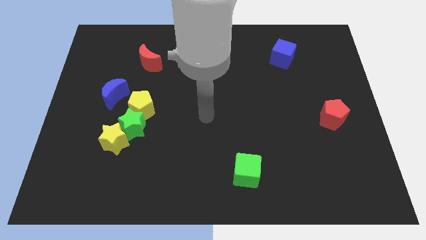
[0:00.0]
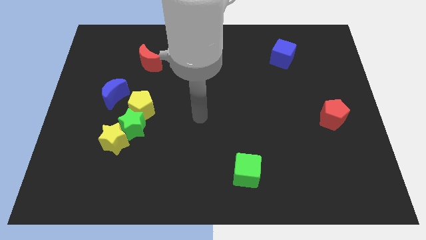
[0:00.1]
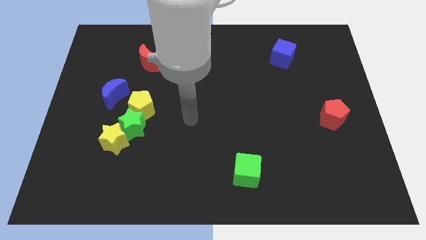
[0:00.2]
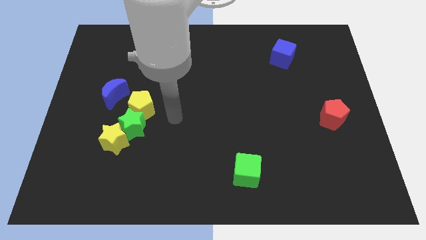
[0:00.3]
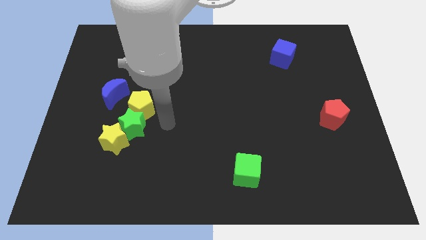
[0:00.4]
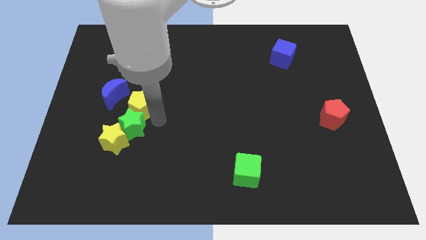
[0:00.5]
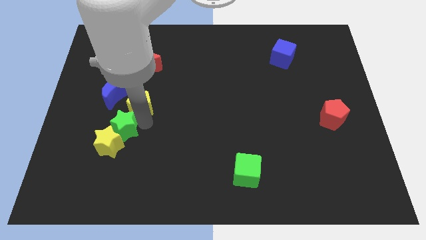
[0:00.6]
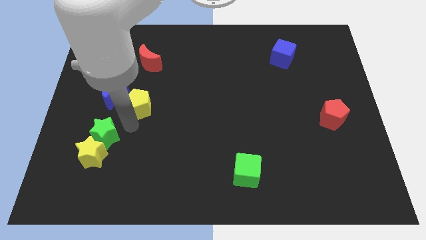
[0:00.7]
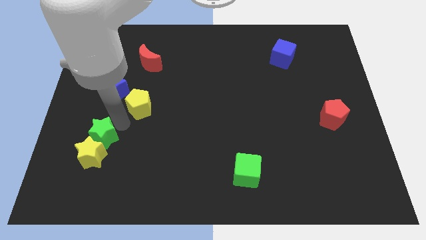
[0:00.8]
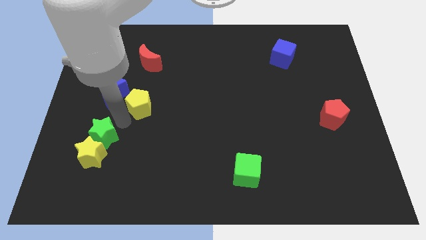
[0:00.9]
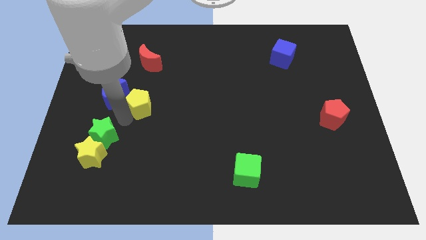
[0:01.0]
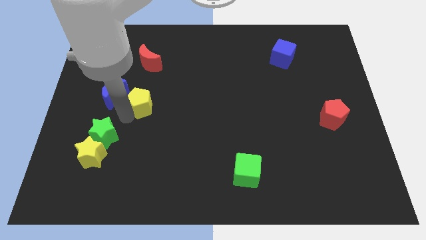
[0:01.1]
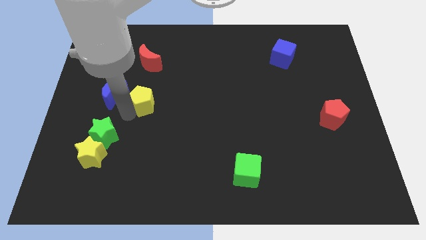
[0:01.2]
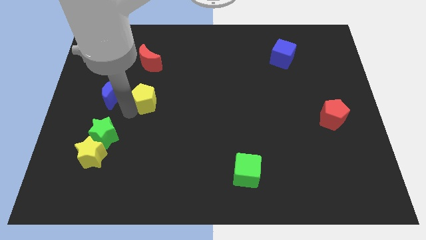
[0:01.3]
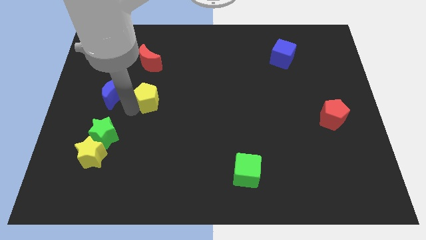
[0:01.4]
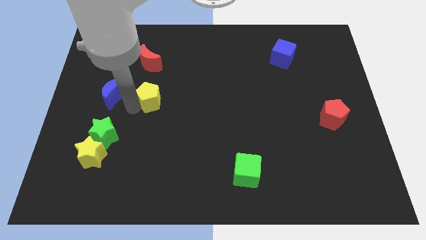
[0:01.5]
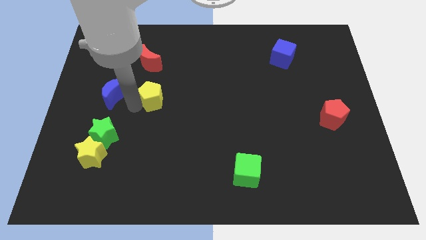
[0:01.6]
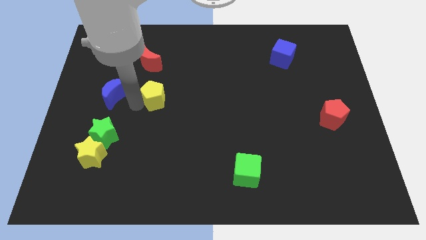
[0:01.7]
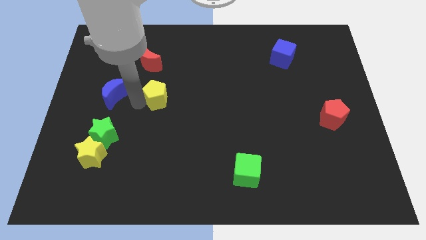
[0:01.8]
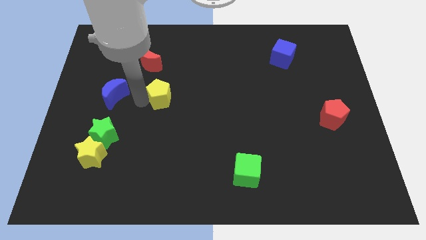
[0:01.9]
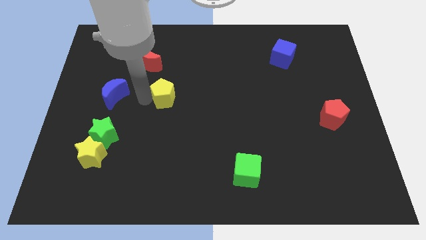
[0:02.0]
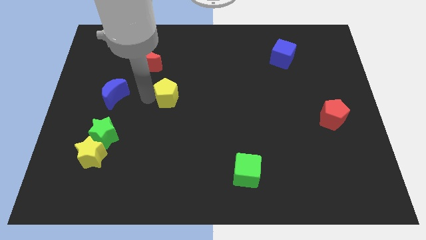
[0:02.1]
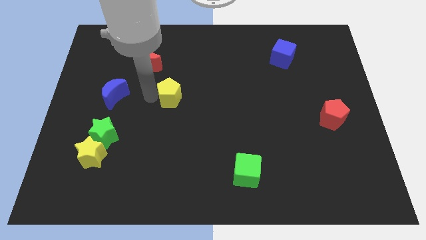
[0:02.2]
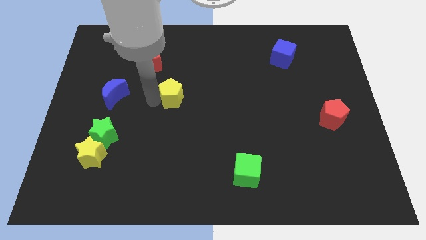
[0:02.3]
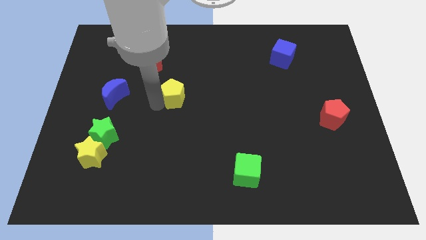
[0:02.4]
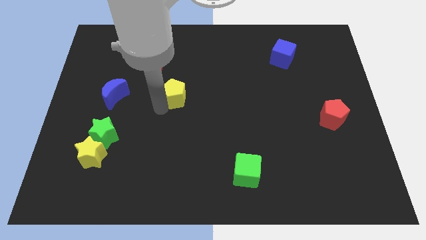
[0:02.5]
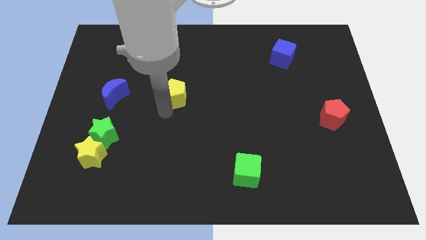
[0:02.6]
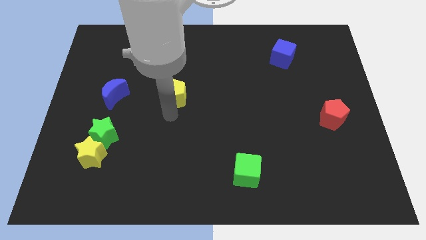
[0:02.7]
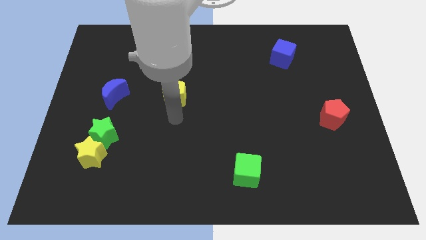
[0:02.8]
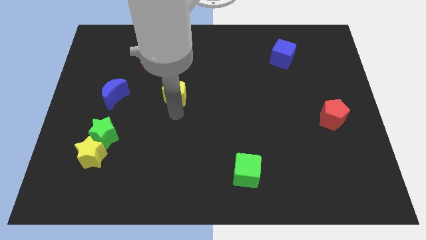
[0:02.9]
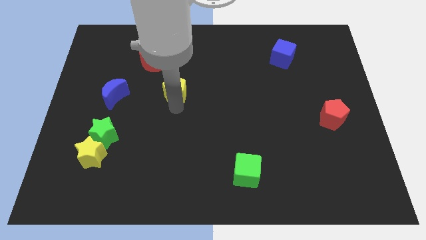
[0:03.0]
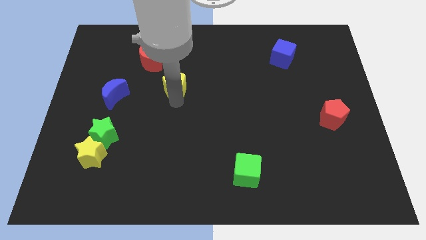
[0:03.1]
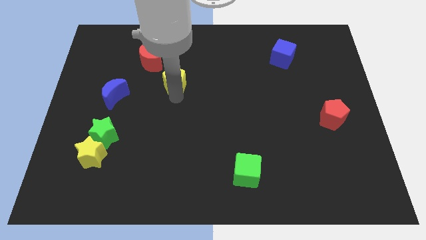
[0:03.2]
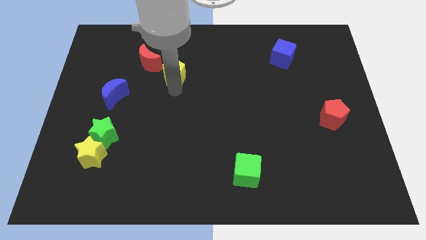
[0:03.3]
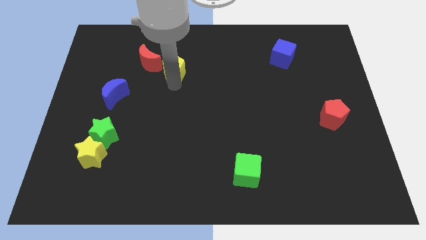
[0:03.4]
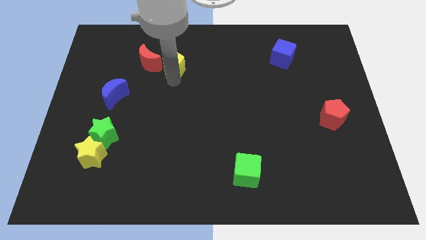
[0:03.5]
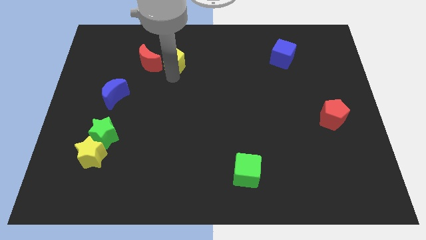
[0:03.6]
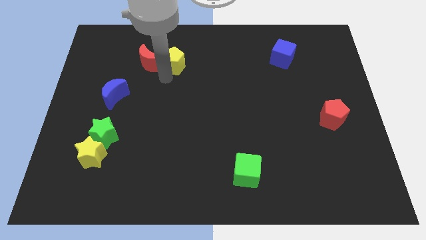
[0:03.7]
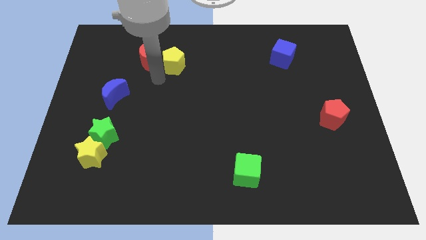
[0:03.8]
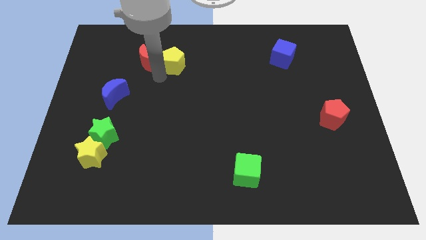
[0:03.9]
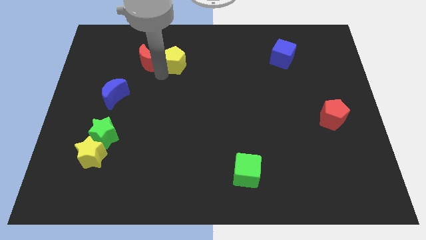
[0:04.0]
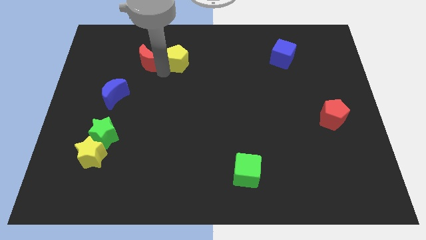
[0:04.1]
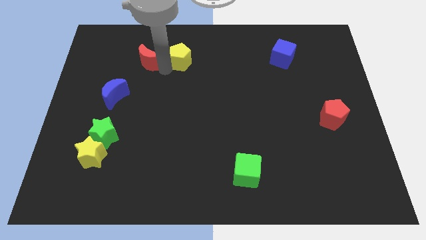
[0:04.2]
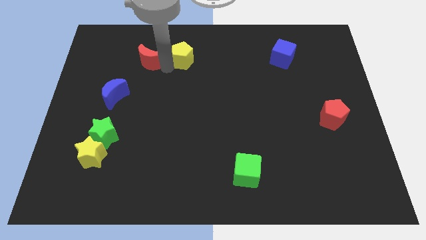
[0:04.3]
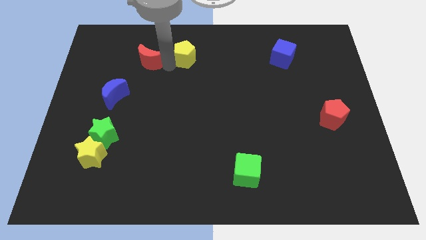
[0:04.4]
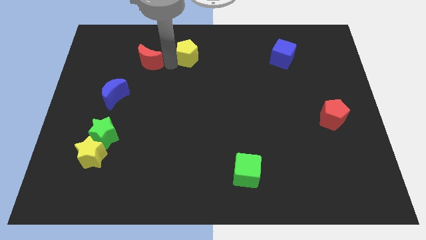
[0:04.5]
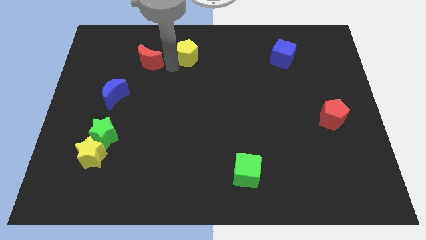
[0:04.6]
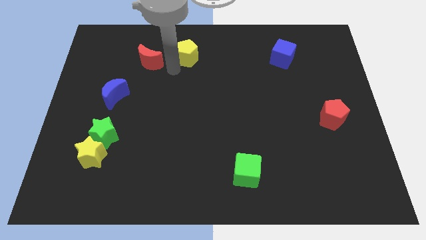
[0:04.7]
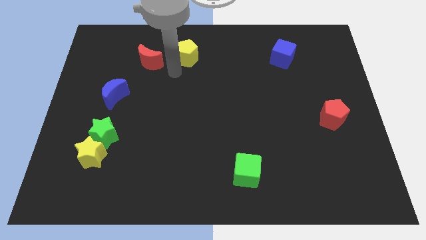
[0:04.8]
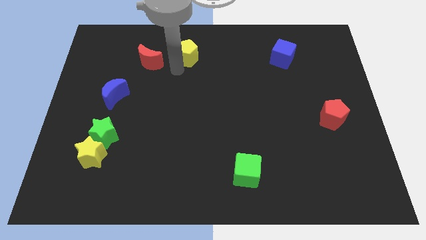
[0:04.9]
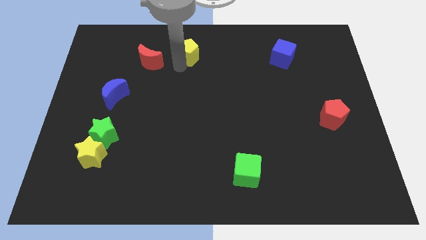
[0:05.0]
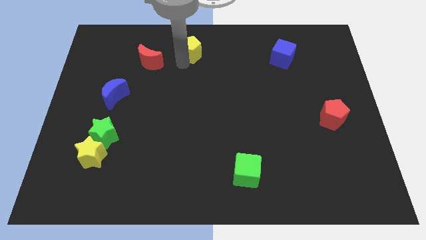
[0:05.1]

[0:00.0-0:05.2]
push the yellow pentagon to the top

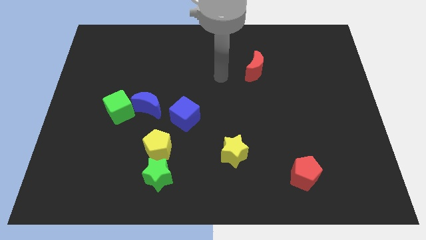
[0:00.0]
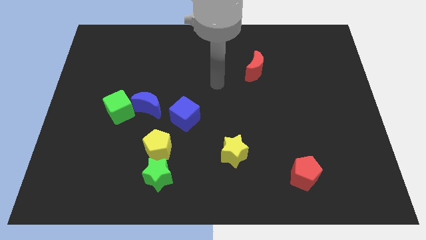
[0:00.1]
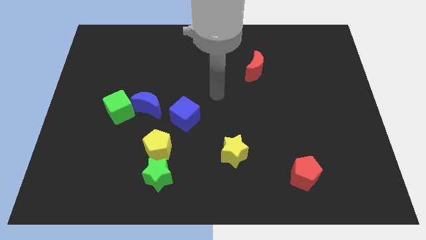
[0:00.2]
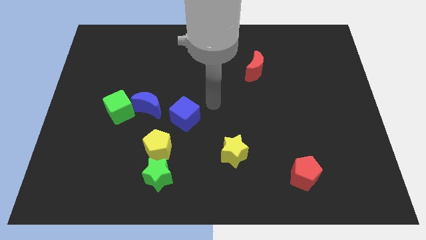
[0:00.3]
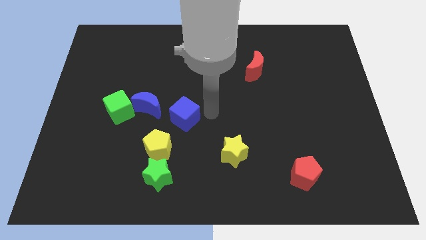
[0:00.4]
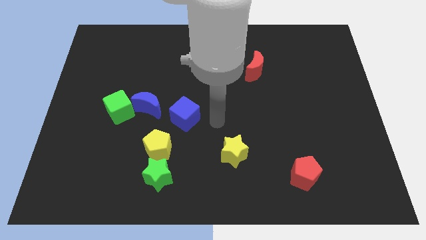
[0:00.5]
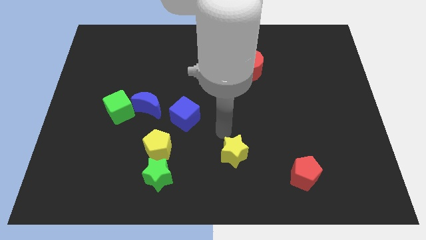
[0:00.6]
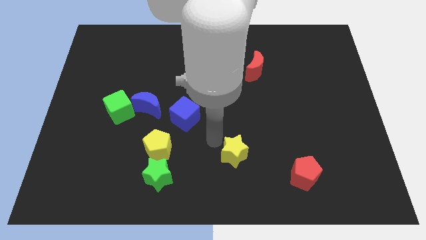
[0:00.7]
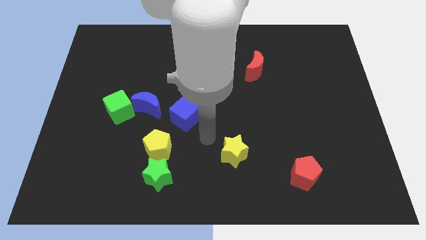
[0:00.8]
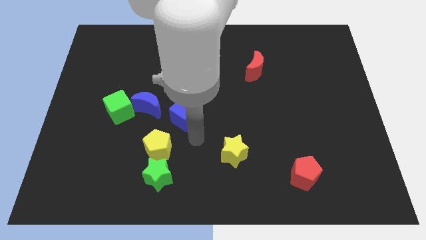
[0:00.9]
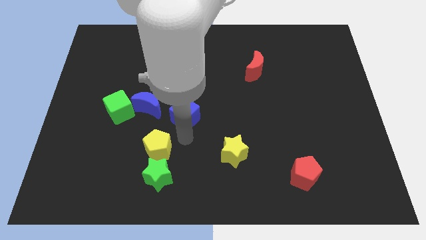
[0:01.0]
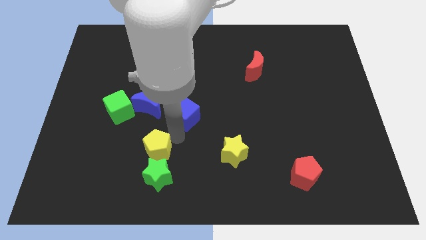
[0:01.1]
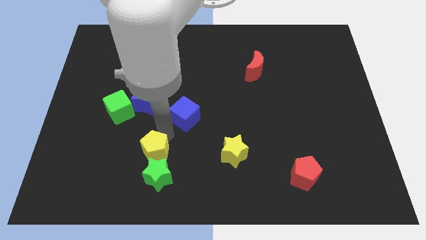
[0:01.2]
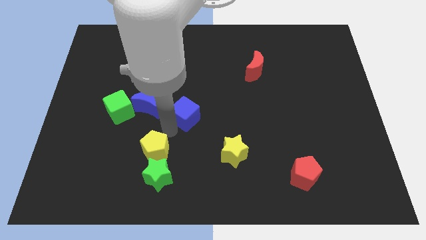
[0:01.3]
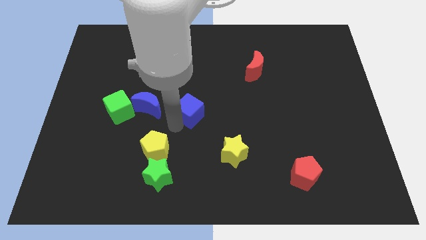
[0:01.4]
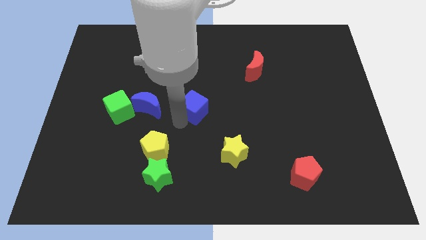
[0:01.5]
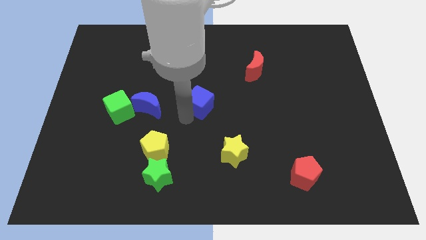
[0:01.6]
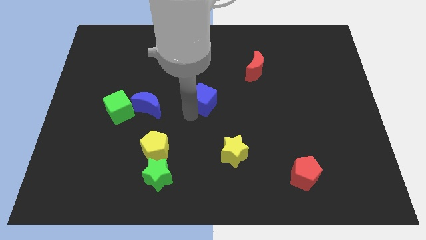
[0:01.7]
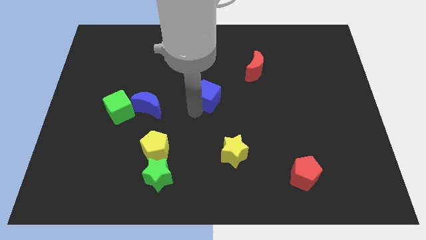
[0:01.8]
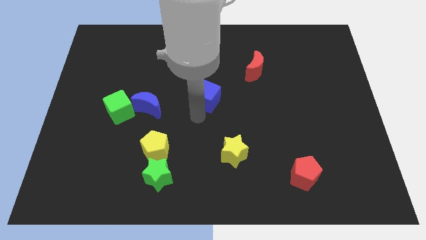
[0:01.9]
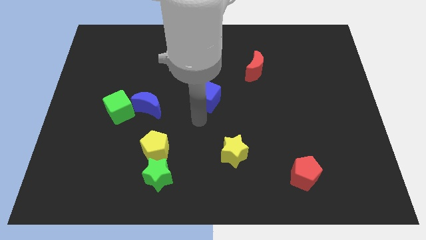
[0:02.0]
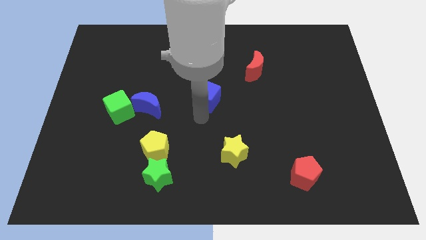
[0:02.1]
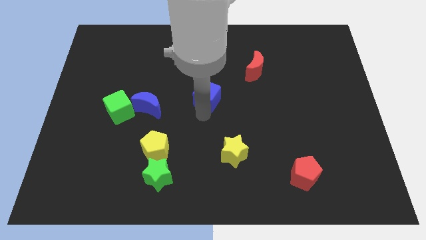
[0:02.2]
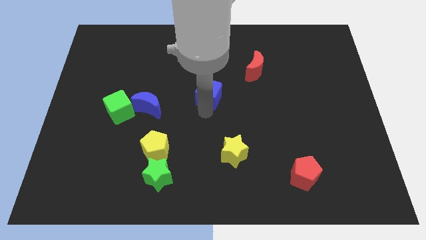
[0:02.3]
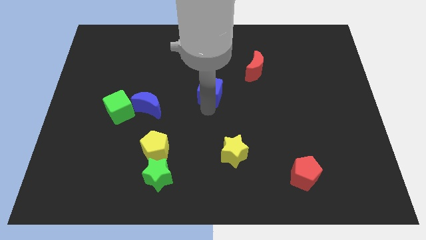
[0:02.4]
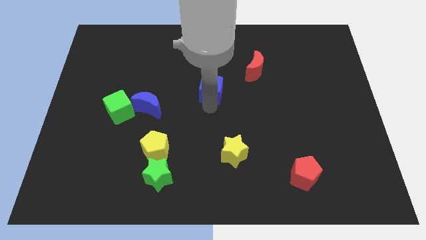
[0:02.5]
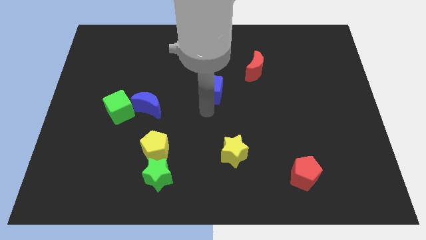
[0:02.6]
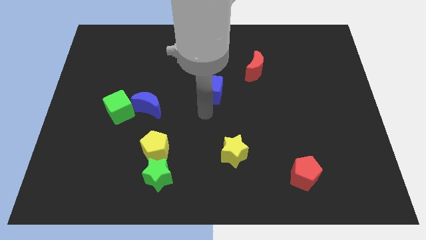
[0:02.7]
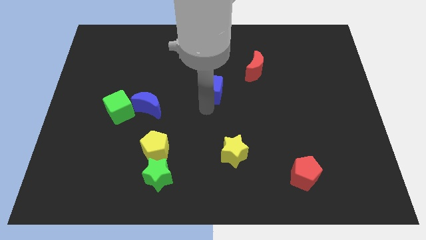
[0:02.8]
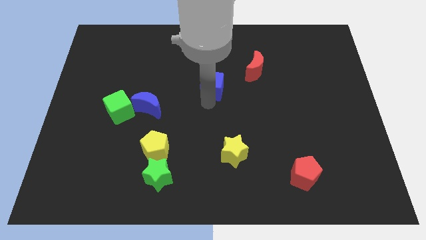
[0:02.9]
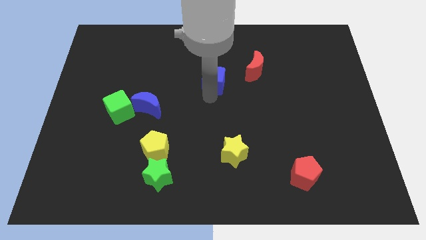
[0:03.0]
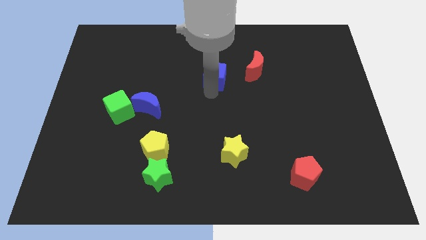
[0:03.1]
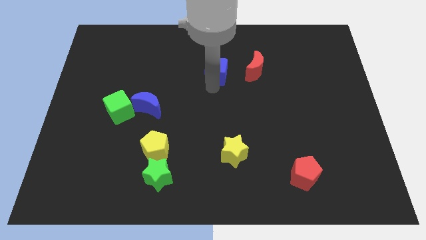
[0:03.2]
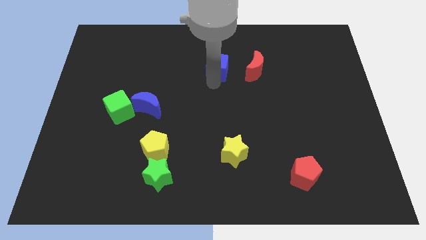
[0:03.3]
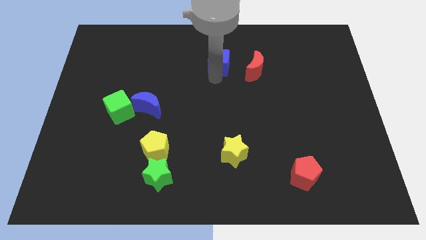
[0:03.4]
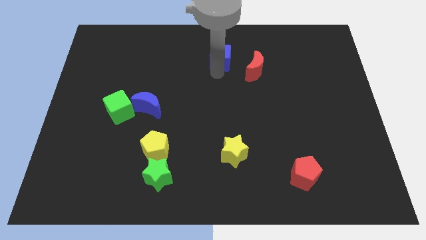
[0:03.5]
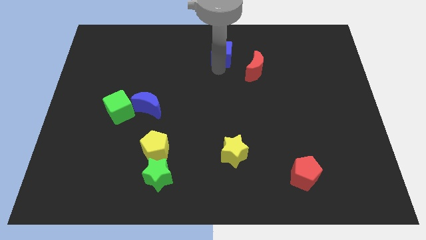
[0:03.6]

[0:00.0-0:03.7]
slide the blue cube to the top
